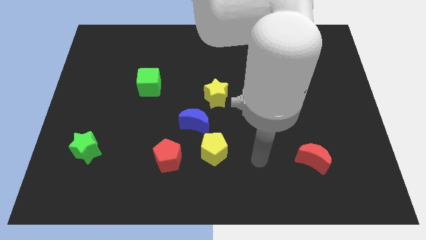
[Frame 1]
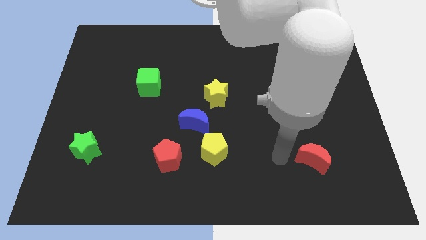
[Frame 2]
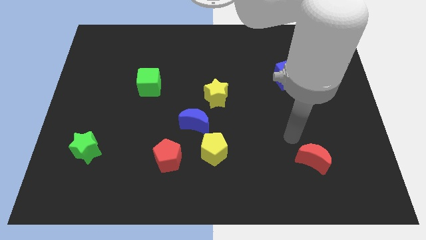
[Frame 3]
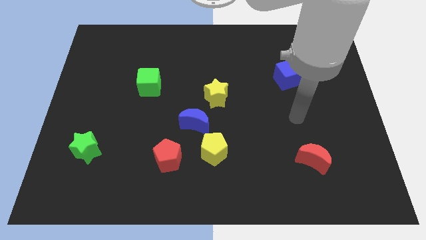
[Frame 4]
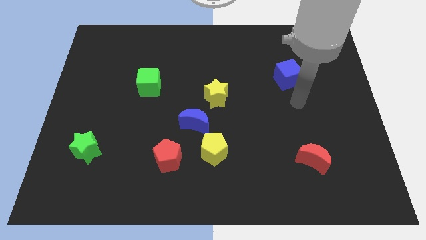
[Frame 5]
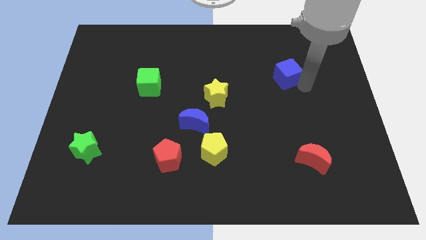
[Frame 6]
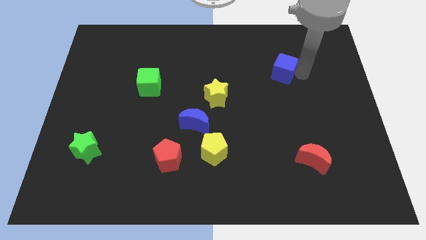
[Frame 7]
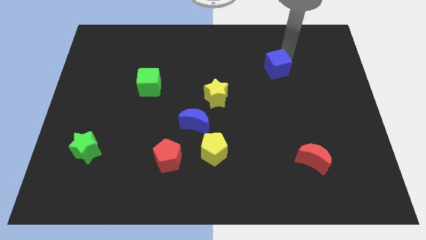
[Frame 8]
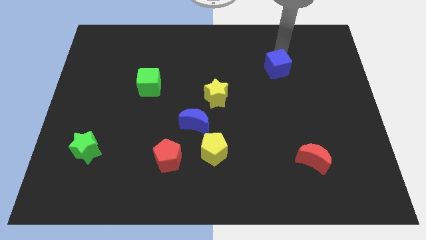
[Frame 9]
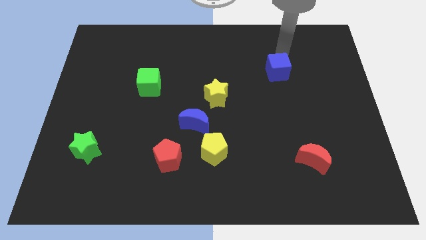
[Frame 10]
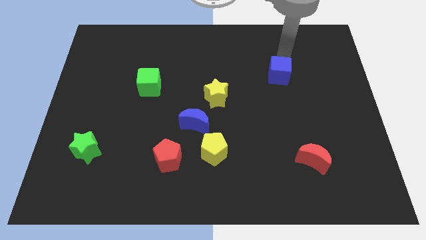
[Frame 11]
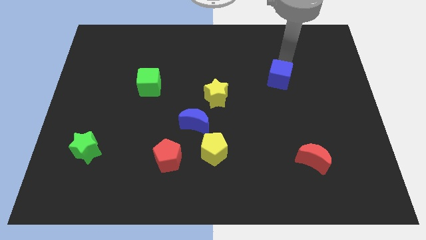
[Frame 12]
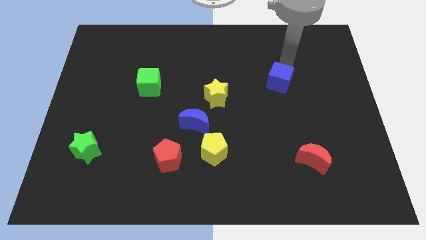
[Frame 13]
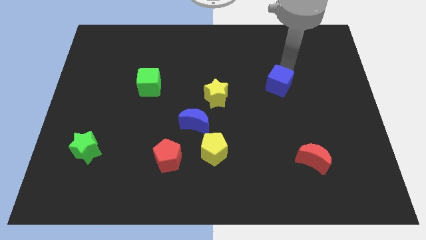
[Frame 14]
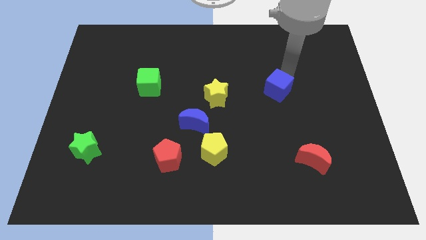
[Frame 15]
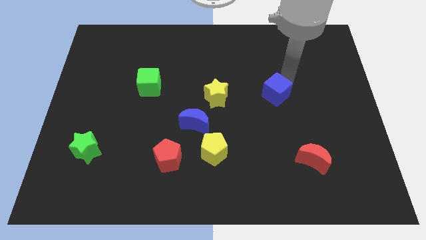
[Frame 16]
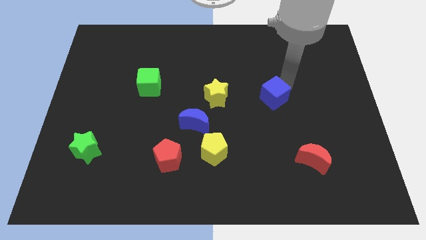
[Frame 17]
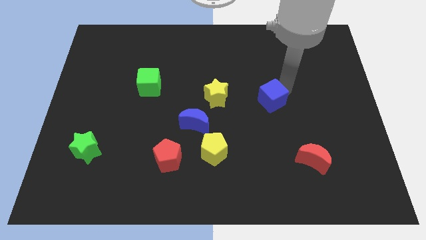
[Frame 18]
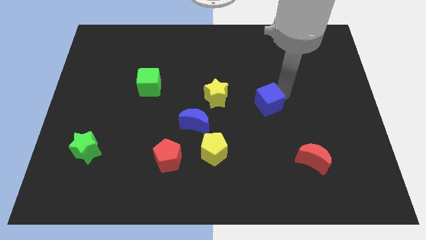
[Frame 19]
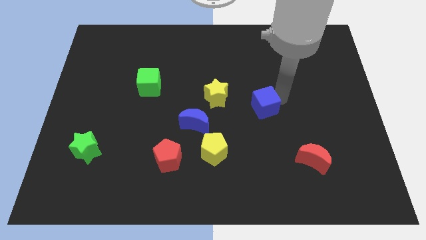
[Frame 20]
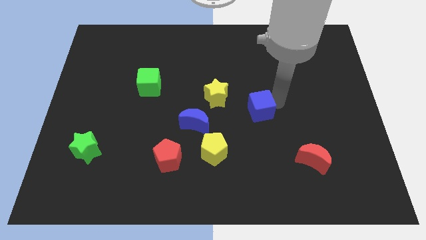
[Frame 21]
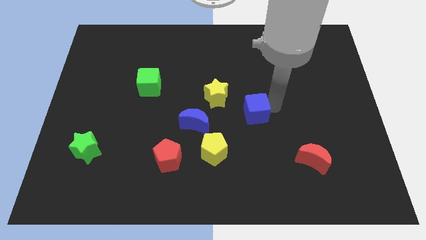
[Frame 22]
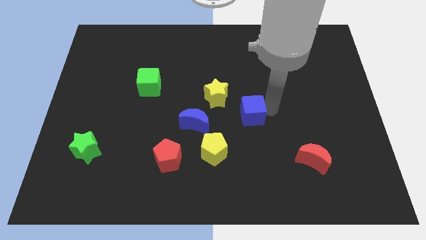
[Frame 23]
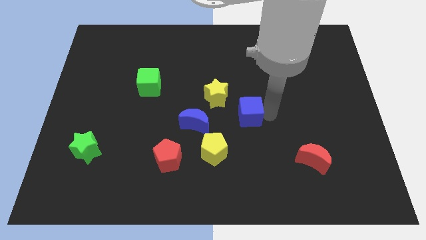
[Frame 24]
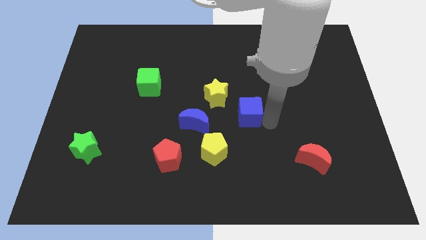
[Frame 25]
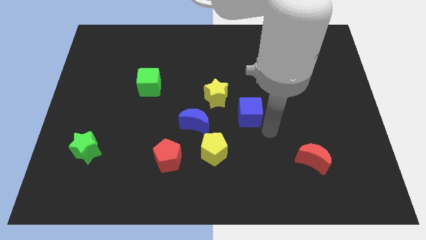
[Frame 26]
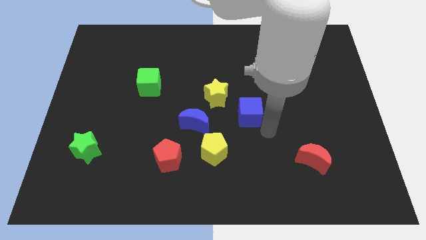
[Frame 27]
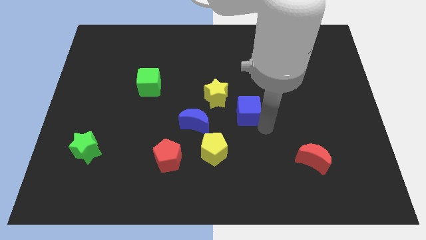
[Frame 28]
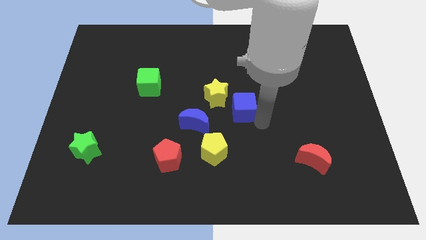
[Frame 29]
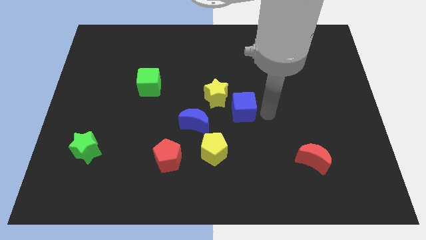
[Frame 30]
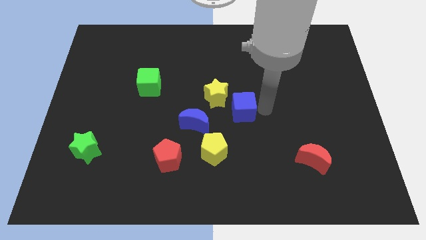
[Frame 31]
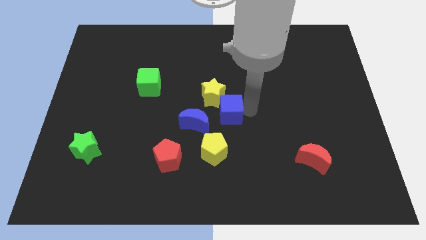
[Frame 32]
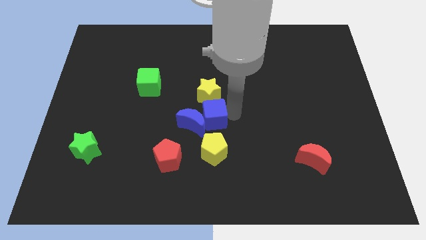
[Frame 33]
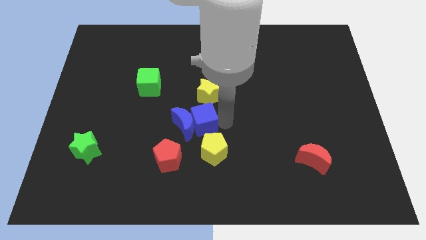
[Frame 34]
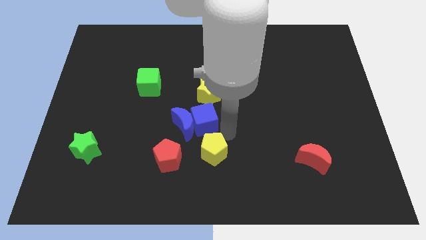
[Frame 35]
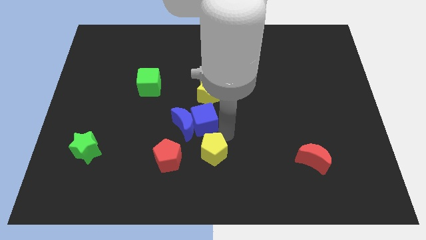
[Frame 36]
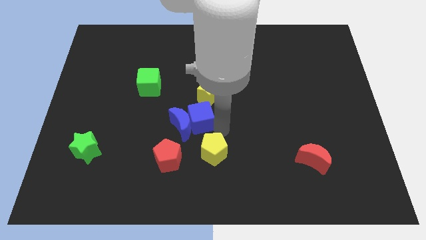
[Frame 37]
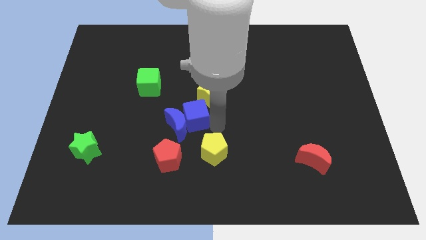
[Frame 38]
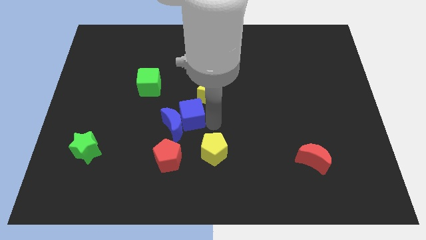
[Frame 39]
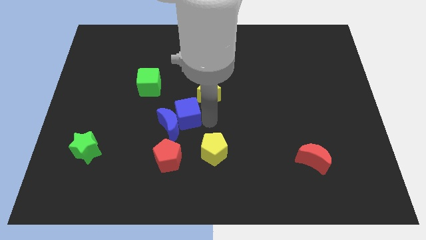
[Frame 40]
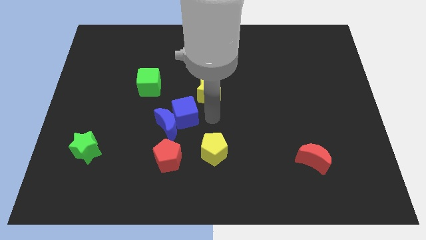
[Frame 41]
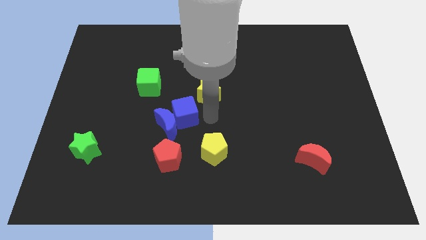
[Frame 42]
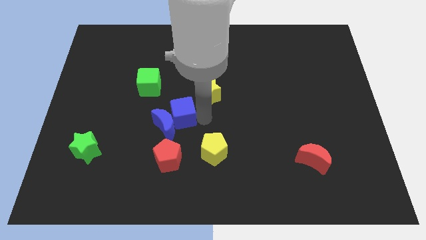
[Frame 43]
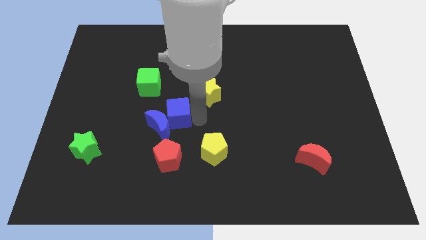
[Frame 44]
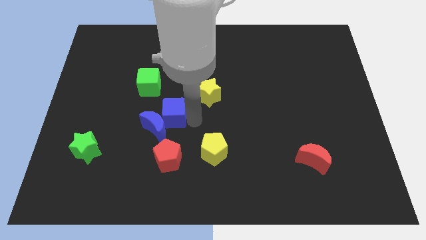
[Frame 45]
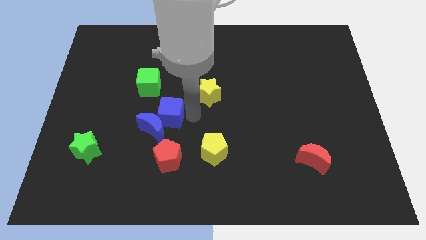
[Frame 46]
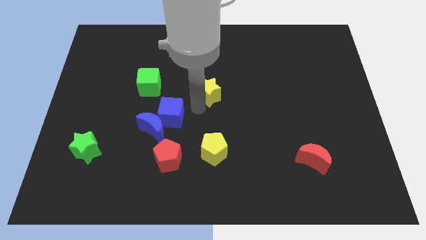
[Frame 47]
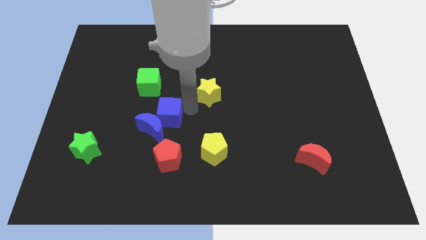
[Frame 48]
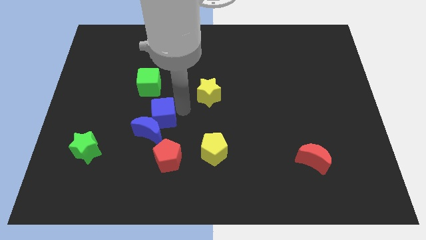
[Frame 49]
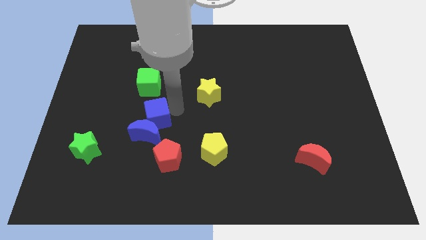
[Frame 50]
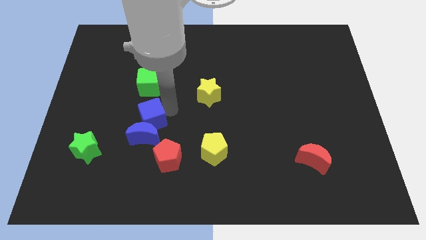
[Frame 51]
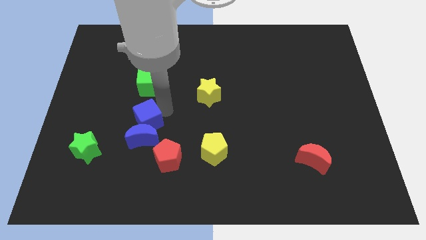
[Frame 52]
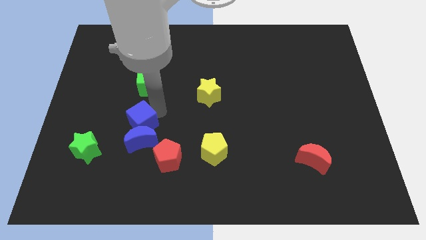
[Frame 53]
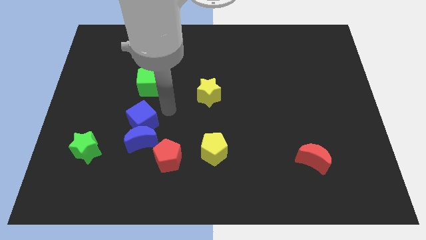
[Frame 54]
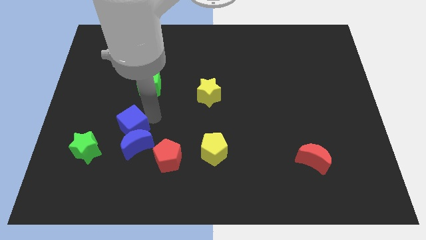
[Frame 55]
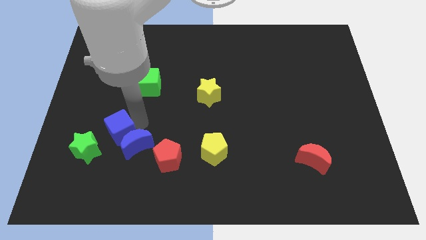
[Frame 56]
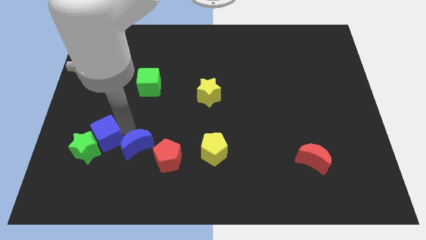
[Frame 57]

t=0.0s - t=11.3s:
move the blue cube close to the green star

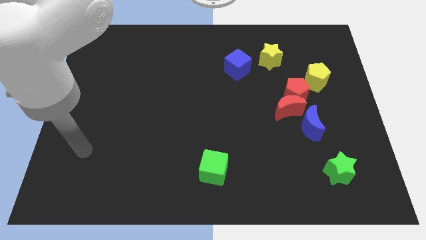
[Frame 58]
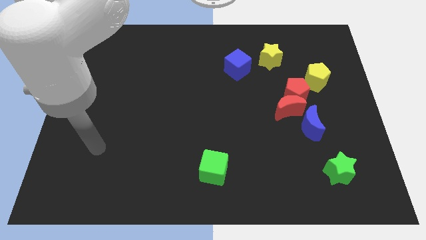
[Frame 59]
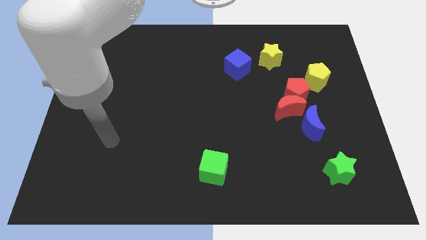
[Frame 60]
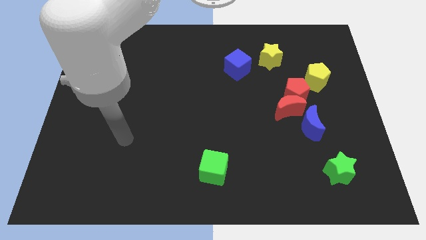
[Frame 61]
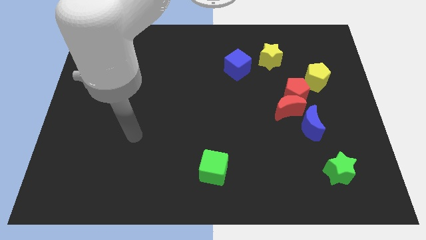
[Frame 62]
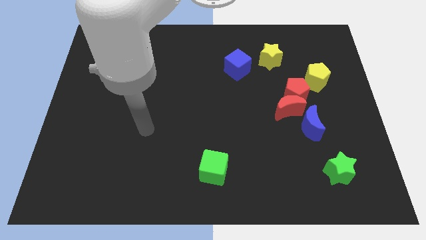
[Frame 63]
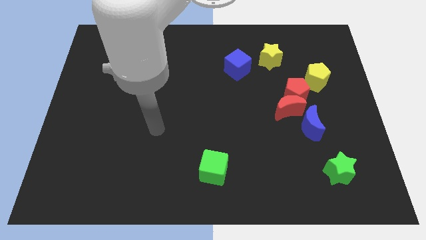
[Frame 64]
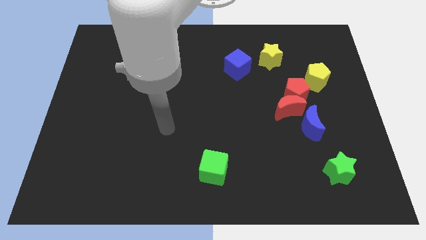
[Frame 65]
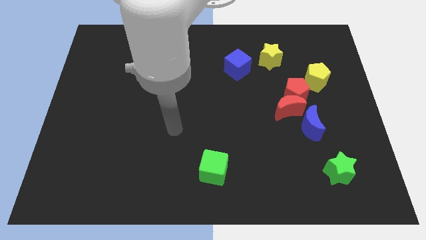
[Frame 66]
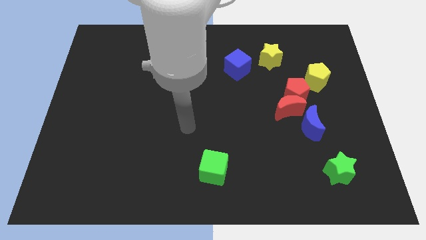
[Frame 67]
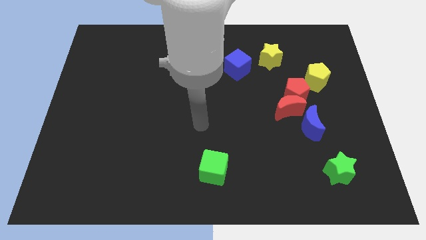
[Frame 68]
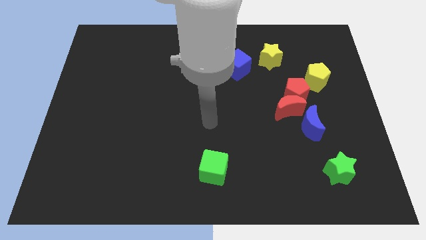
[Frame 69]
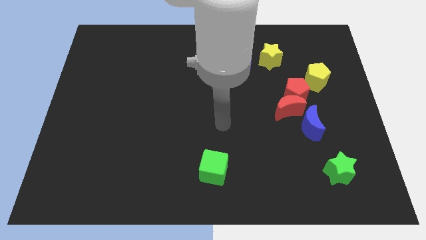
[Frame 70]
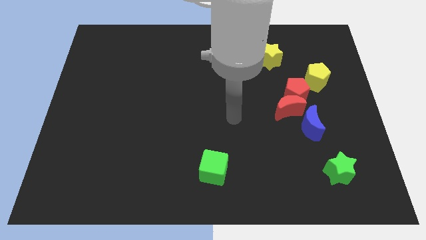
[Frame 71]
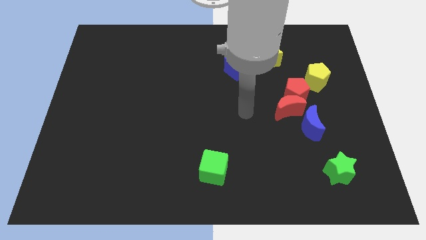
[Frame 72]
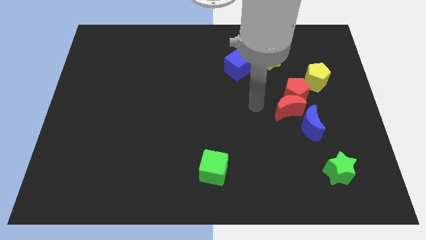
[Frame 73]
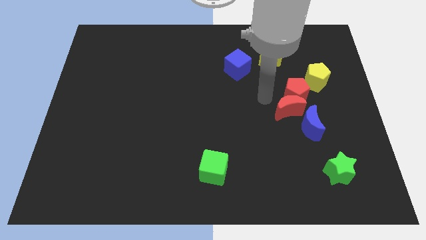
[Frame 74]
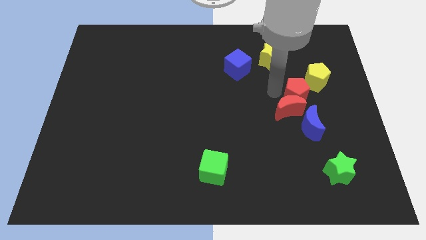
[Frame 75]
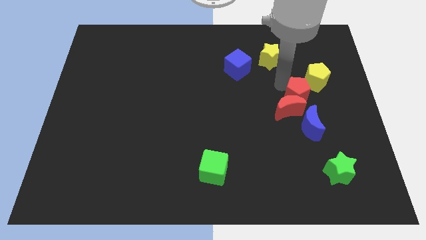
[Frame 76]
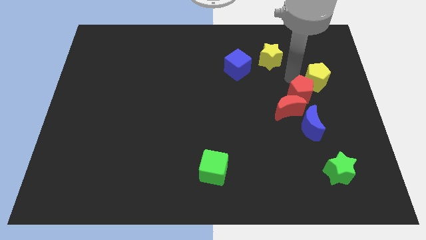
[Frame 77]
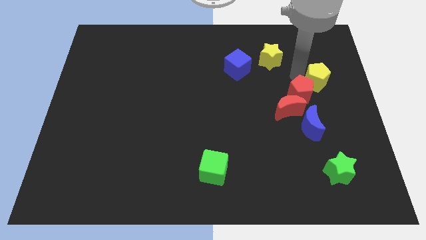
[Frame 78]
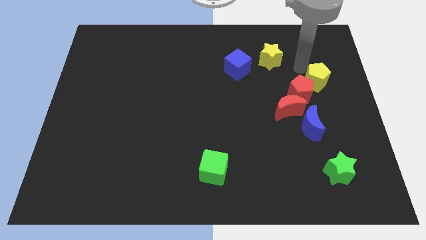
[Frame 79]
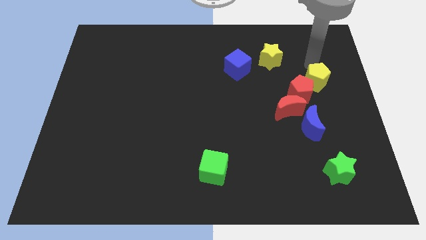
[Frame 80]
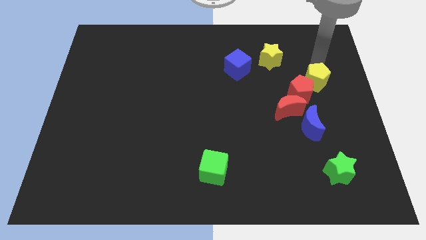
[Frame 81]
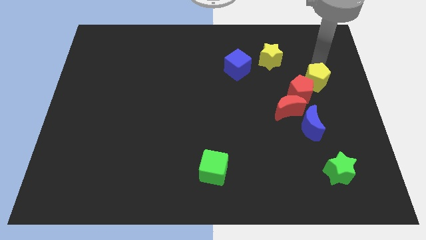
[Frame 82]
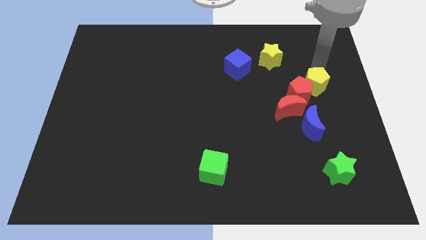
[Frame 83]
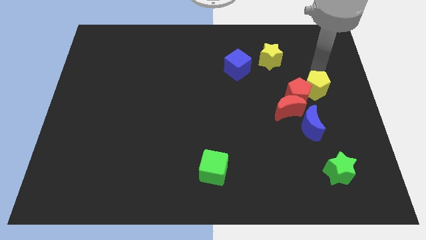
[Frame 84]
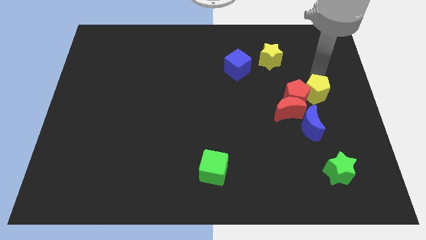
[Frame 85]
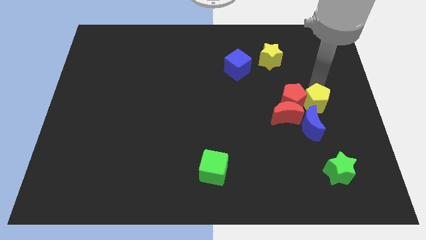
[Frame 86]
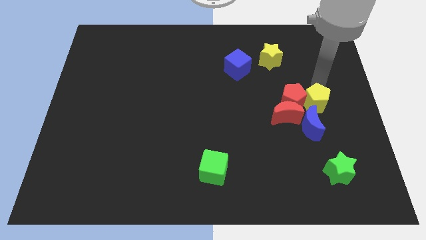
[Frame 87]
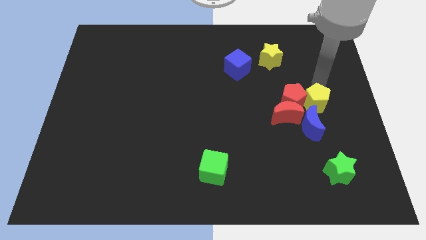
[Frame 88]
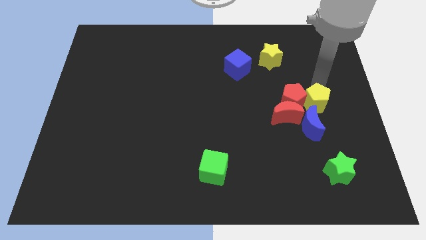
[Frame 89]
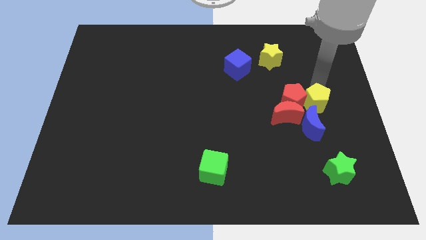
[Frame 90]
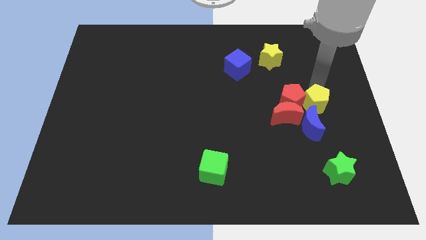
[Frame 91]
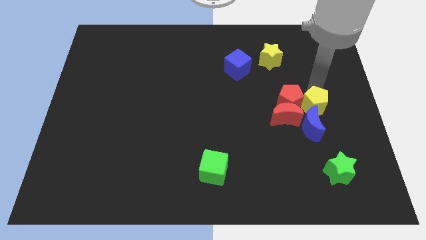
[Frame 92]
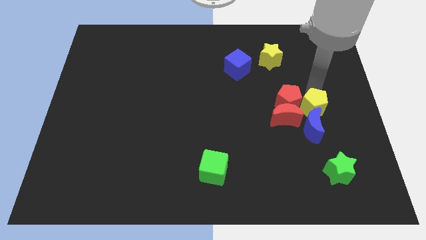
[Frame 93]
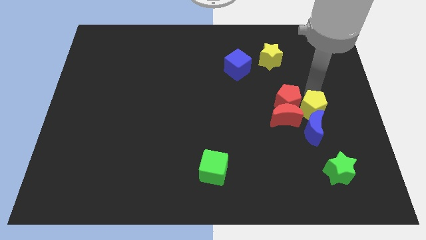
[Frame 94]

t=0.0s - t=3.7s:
put the yellow pentagon to the blue moon
